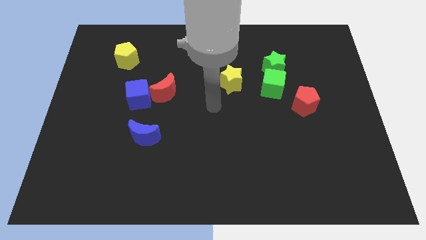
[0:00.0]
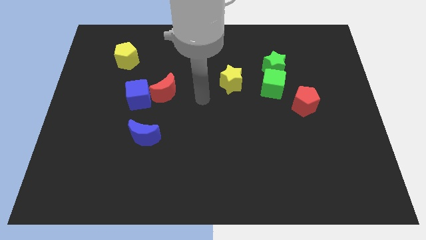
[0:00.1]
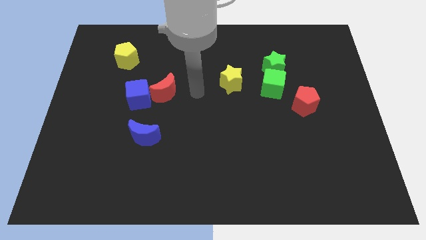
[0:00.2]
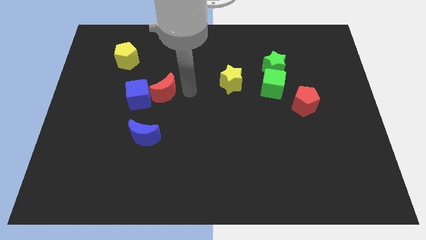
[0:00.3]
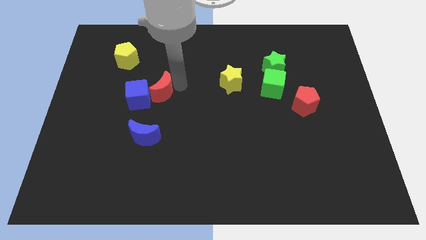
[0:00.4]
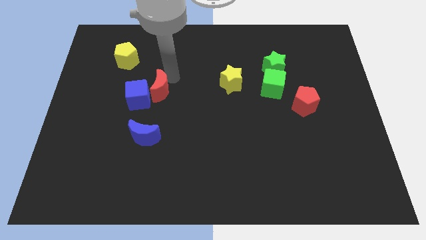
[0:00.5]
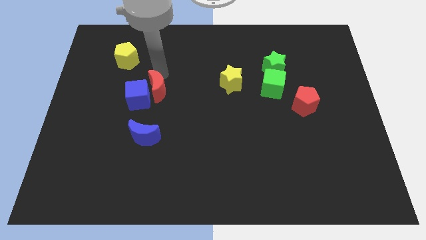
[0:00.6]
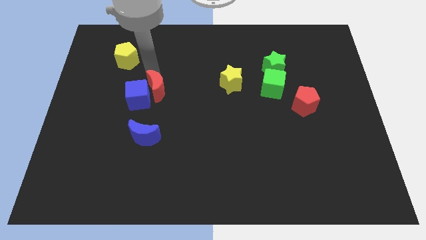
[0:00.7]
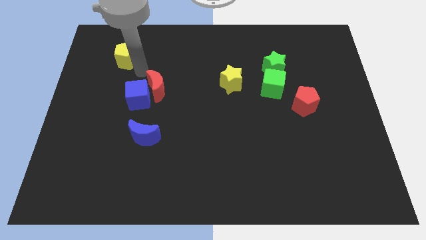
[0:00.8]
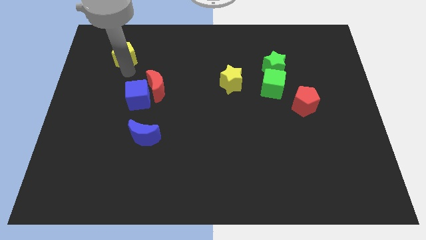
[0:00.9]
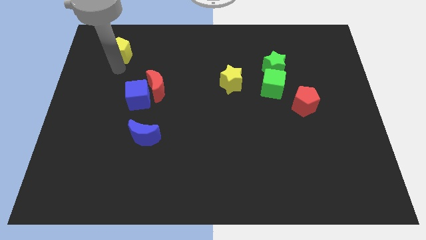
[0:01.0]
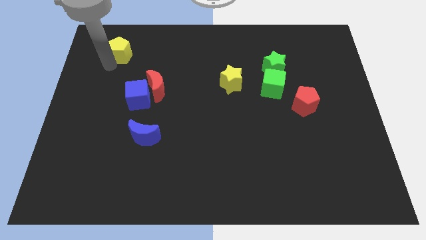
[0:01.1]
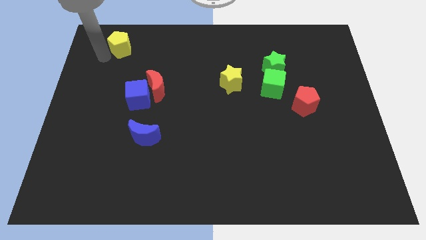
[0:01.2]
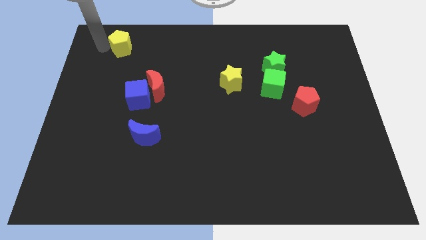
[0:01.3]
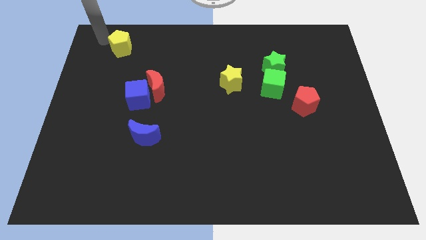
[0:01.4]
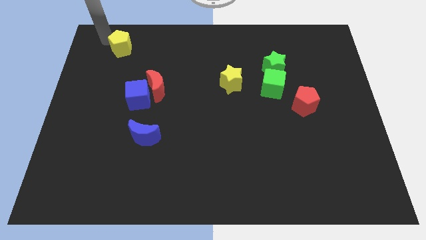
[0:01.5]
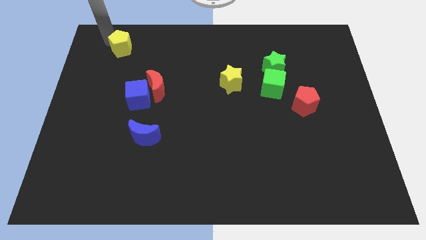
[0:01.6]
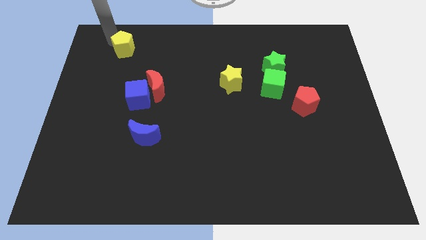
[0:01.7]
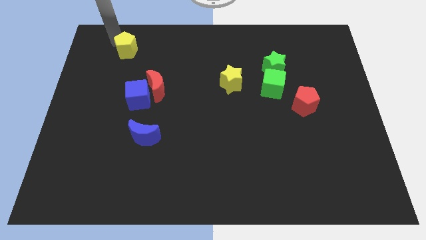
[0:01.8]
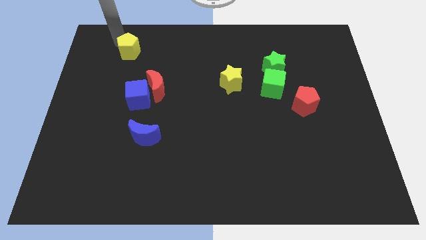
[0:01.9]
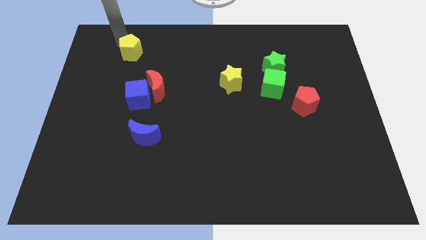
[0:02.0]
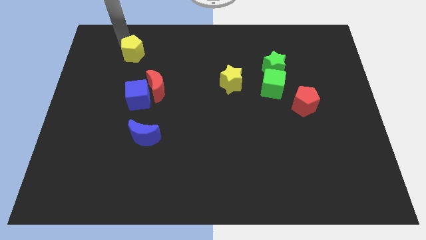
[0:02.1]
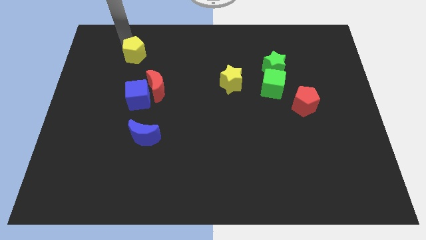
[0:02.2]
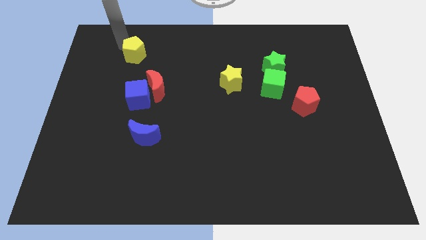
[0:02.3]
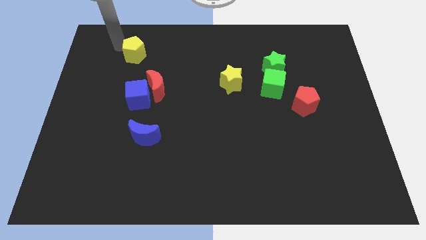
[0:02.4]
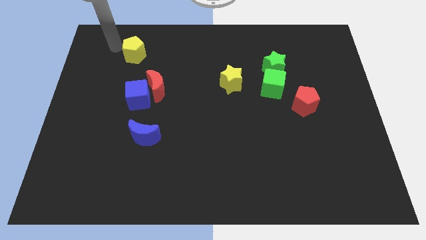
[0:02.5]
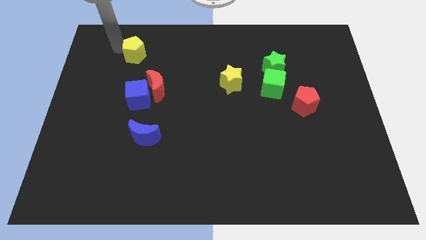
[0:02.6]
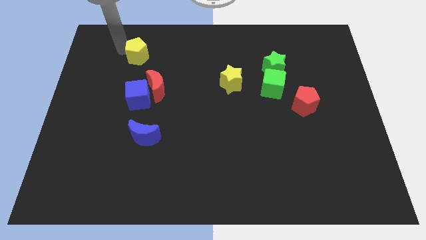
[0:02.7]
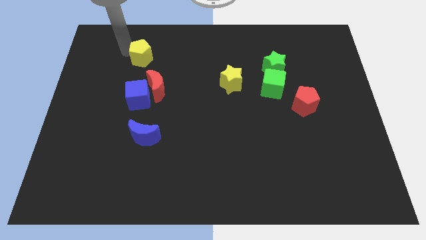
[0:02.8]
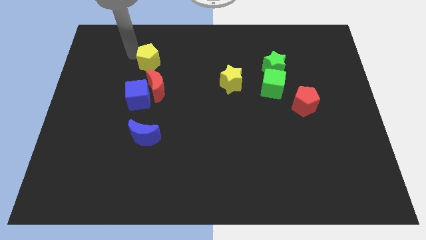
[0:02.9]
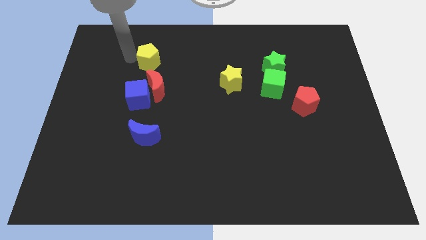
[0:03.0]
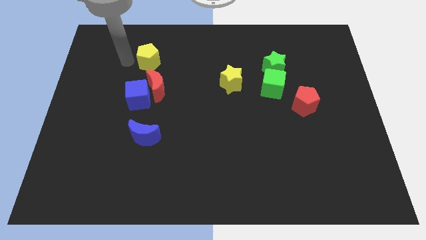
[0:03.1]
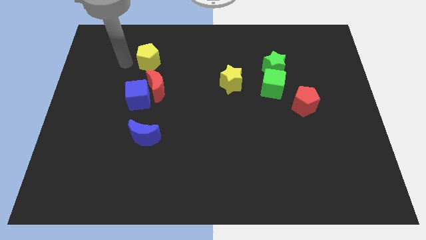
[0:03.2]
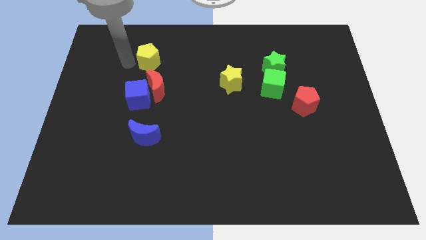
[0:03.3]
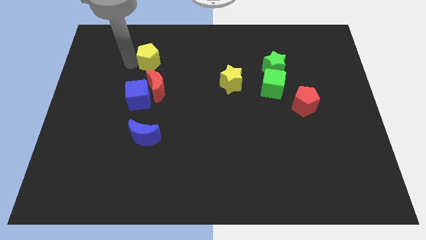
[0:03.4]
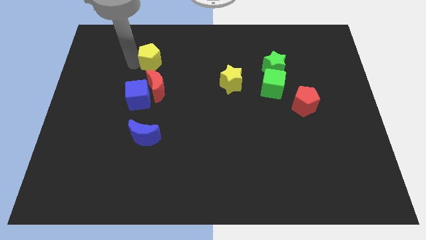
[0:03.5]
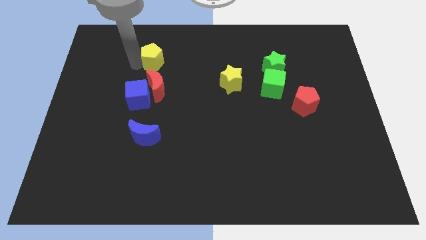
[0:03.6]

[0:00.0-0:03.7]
slightly push the yellow pentagon to the right

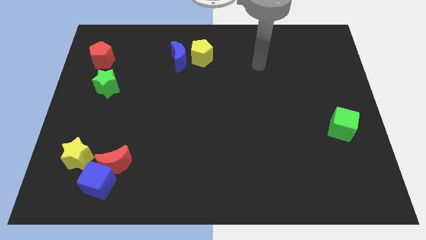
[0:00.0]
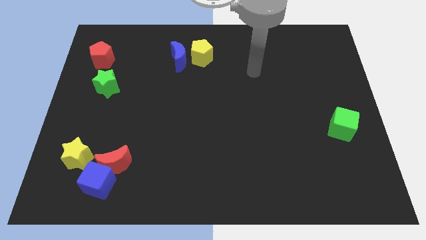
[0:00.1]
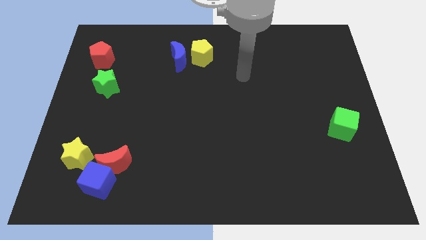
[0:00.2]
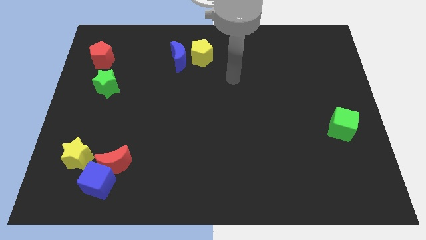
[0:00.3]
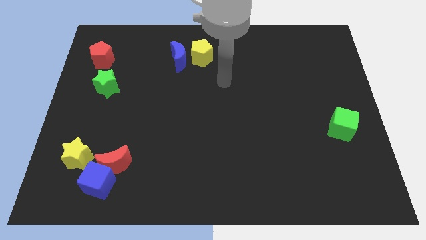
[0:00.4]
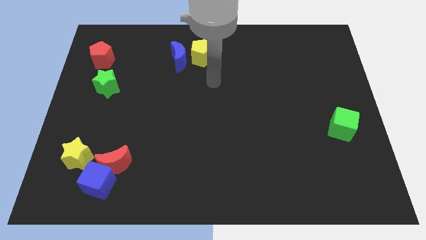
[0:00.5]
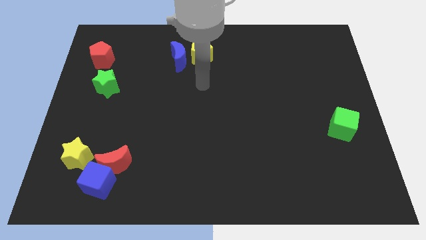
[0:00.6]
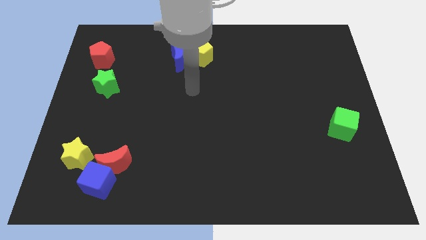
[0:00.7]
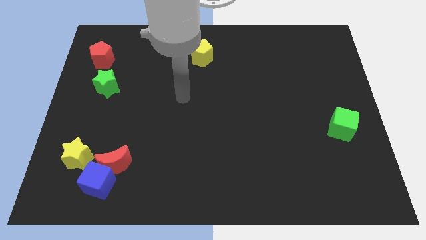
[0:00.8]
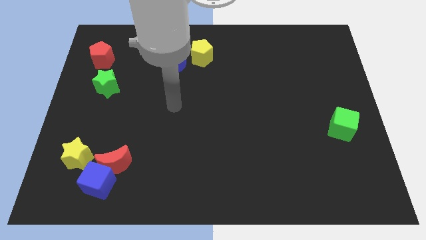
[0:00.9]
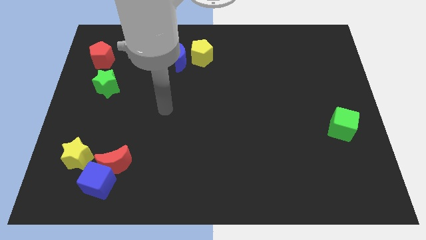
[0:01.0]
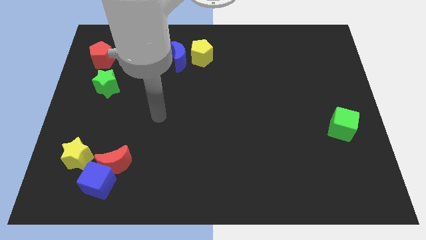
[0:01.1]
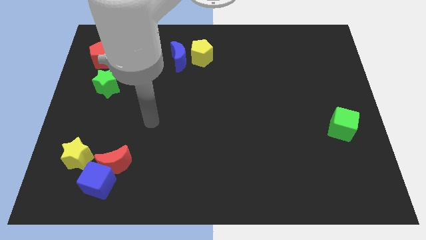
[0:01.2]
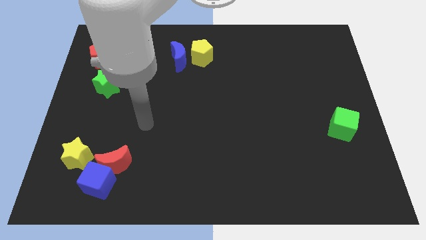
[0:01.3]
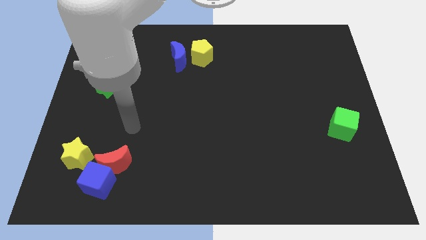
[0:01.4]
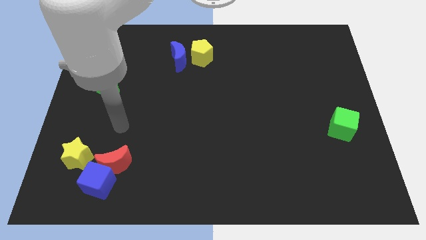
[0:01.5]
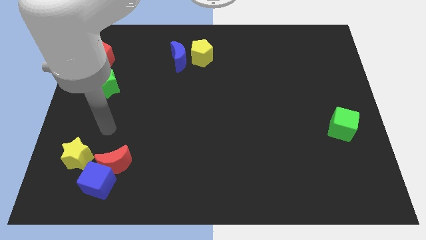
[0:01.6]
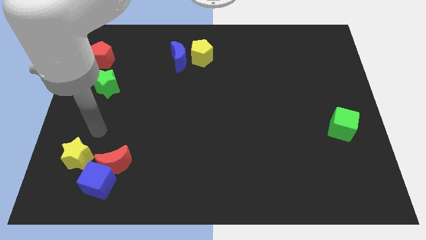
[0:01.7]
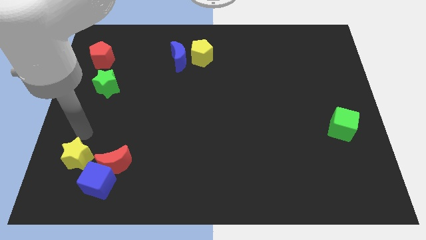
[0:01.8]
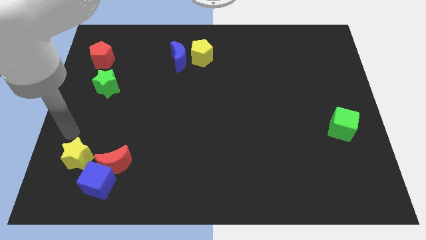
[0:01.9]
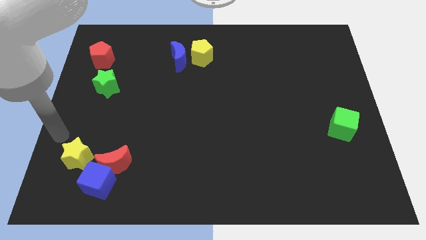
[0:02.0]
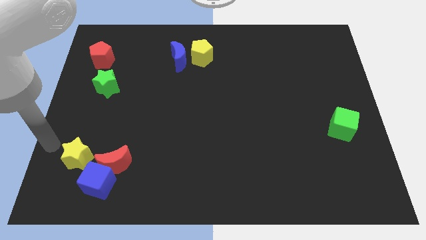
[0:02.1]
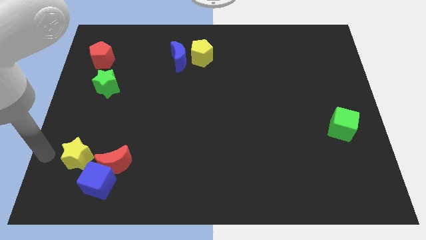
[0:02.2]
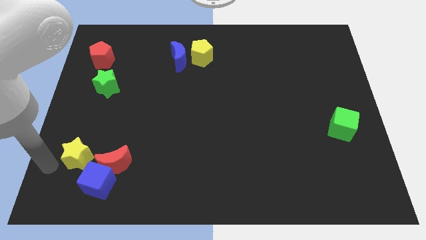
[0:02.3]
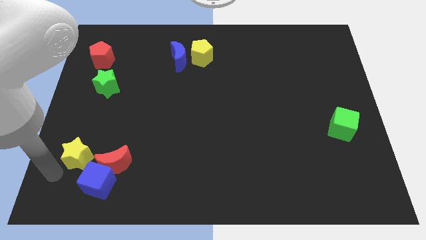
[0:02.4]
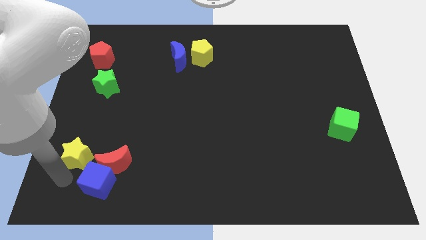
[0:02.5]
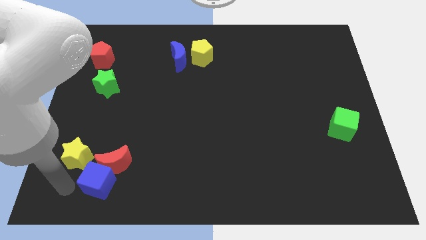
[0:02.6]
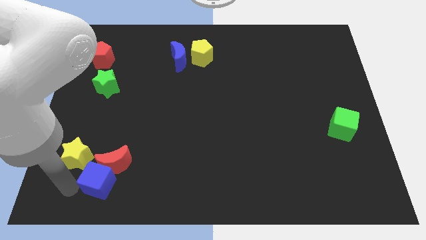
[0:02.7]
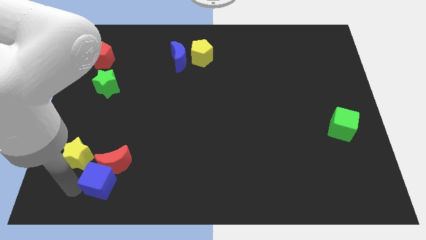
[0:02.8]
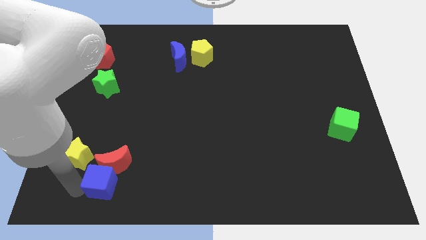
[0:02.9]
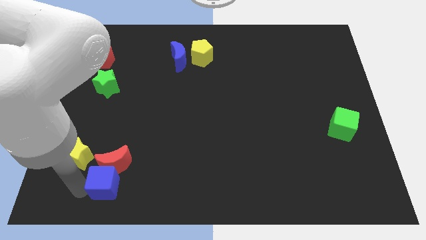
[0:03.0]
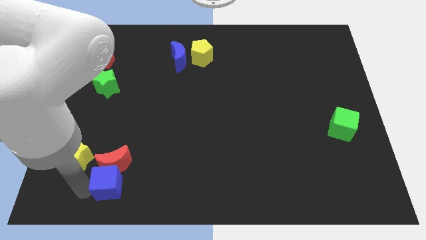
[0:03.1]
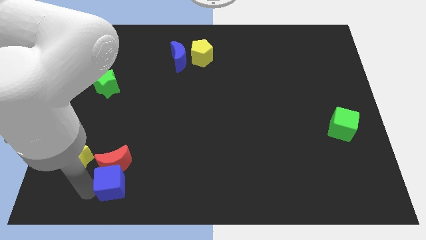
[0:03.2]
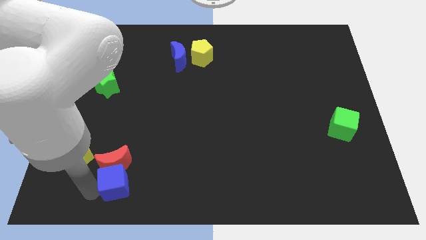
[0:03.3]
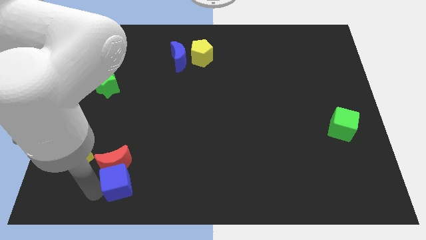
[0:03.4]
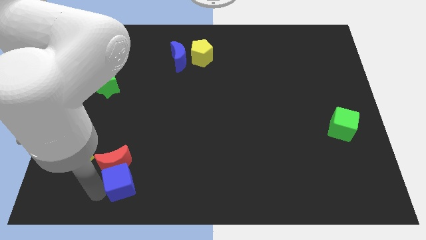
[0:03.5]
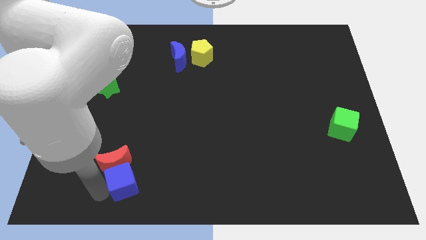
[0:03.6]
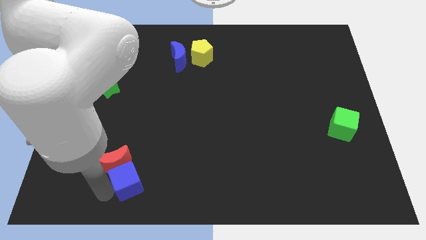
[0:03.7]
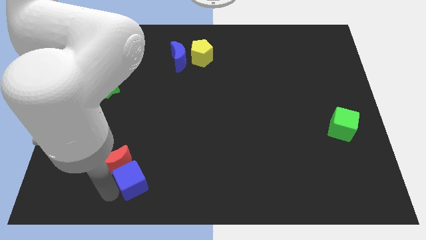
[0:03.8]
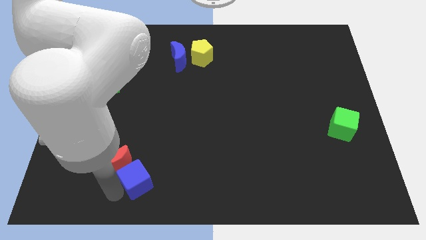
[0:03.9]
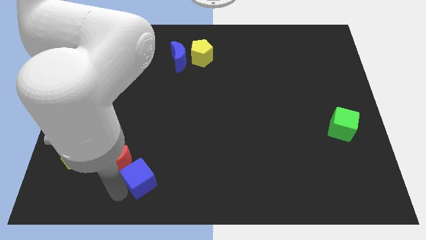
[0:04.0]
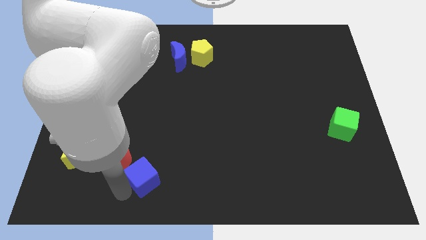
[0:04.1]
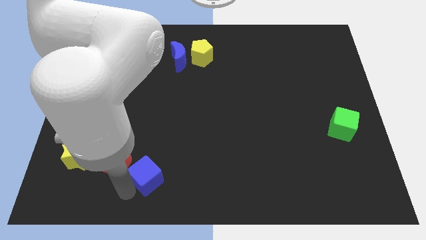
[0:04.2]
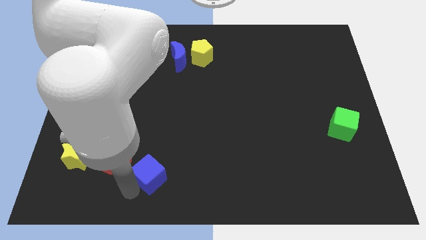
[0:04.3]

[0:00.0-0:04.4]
slightly slide the blue cube upwards and then right

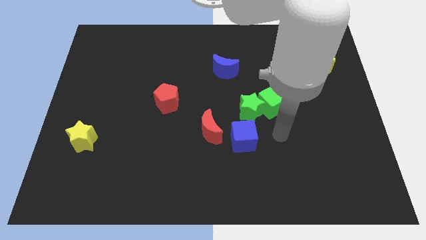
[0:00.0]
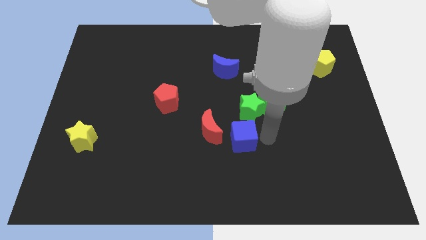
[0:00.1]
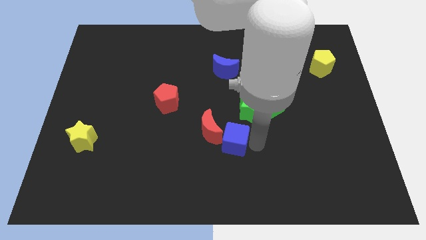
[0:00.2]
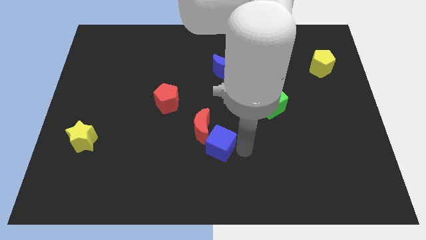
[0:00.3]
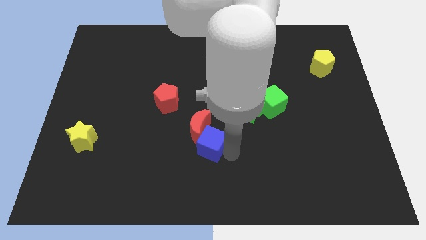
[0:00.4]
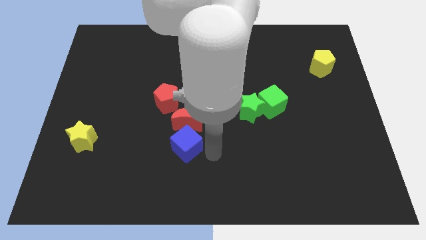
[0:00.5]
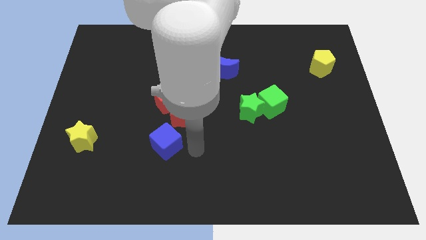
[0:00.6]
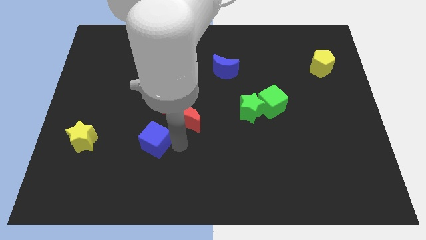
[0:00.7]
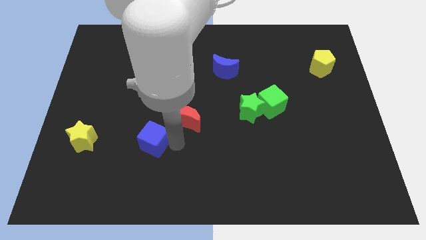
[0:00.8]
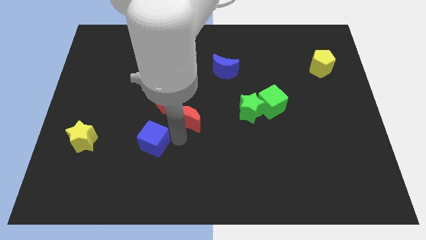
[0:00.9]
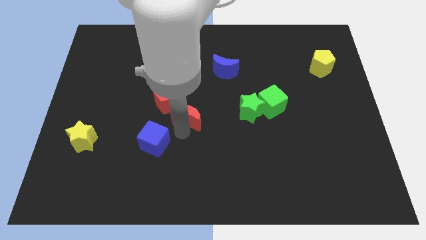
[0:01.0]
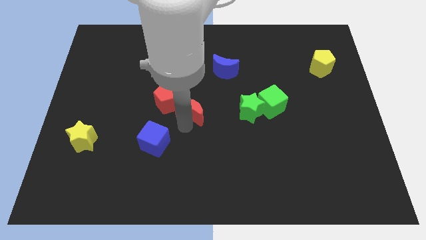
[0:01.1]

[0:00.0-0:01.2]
move the red moon a bit up and left diagonally
